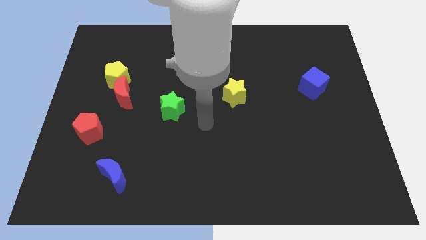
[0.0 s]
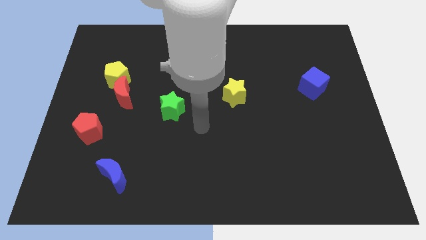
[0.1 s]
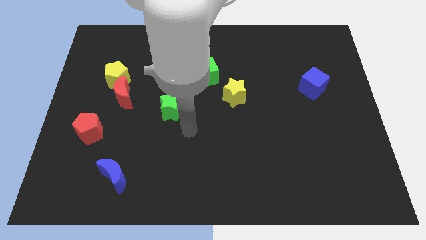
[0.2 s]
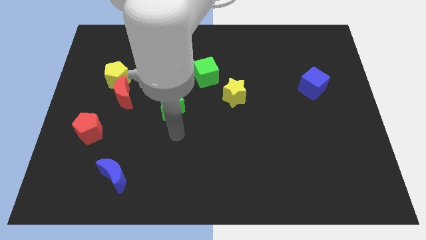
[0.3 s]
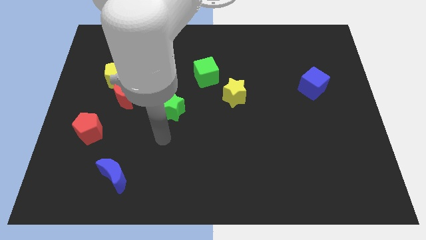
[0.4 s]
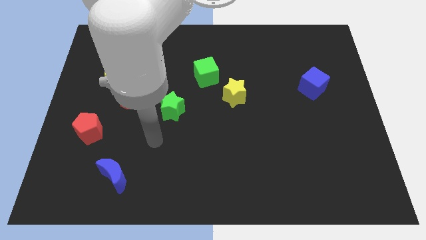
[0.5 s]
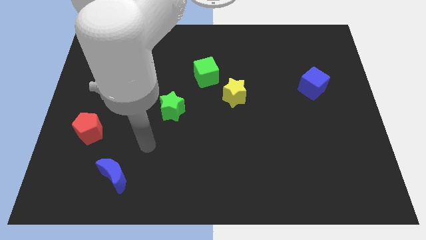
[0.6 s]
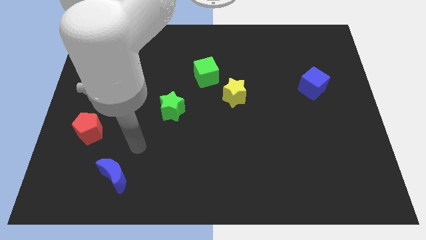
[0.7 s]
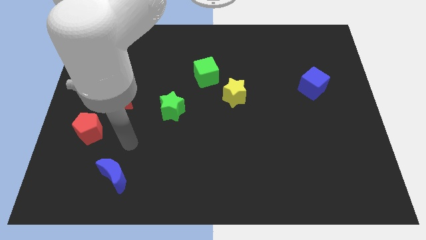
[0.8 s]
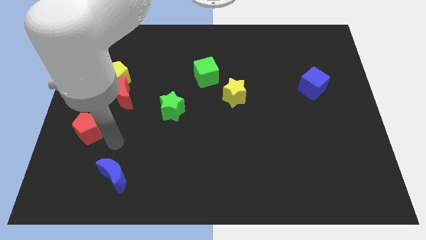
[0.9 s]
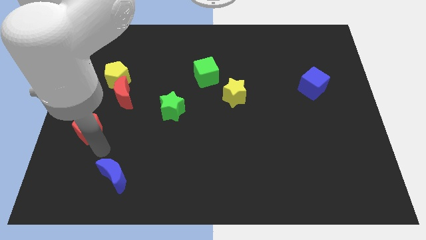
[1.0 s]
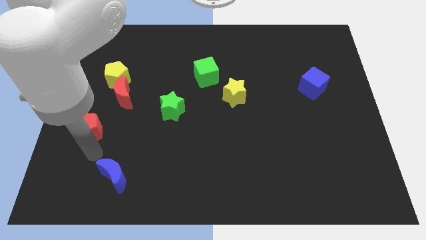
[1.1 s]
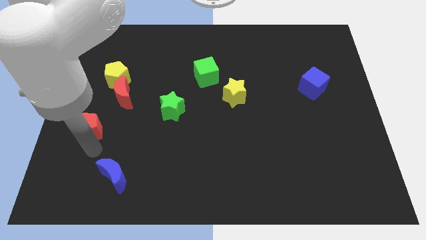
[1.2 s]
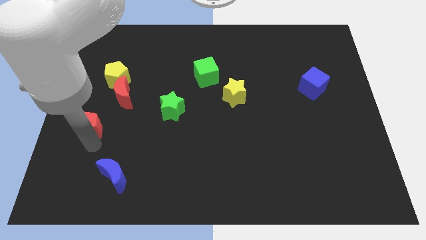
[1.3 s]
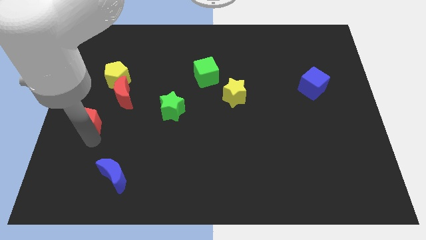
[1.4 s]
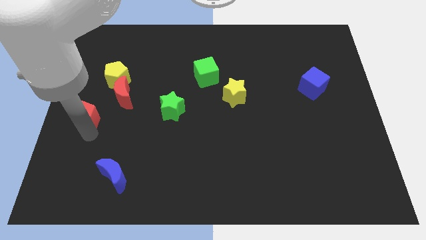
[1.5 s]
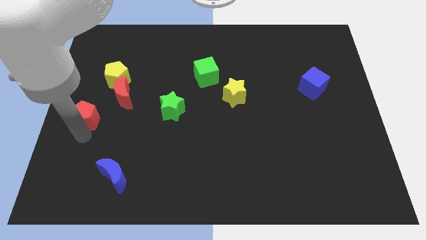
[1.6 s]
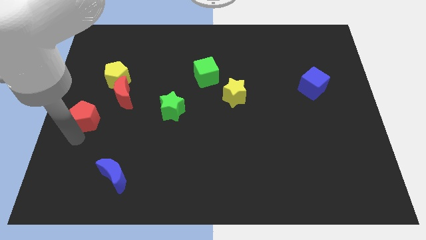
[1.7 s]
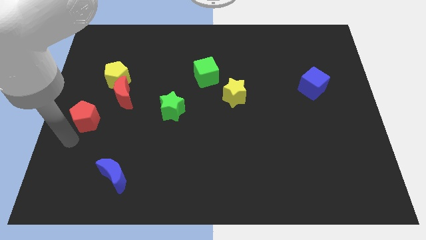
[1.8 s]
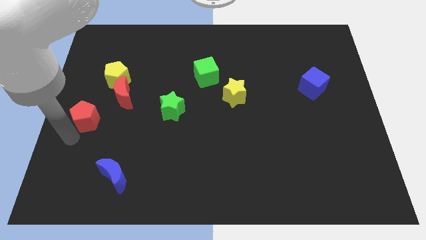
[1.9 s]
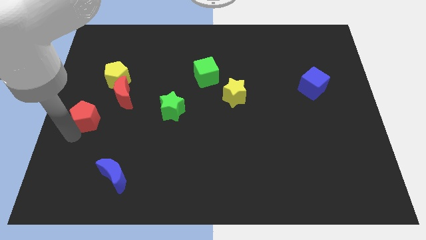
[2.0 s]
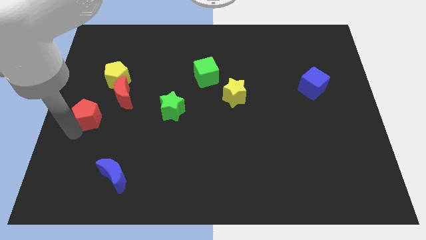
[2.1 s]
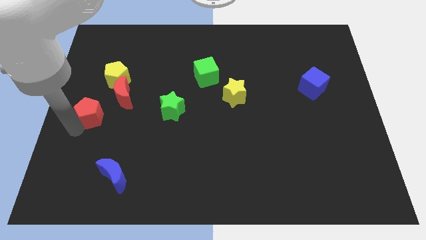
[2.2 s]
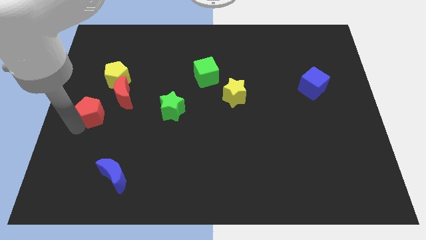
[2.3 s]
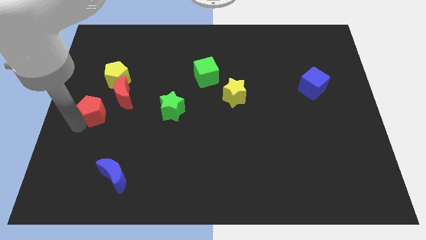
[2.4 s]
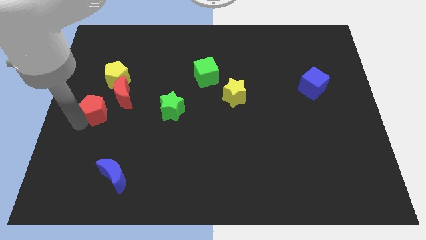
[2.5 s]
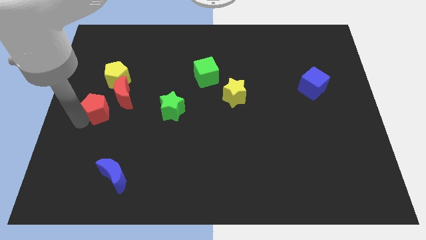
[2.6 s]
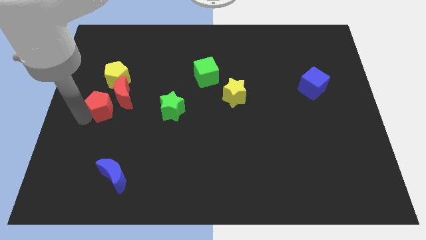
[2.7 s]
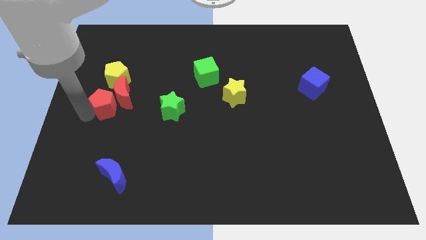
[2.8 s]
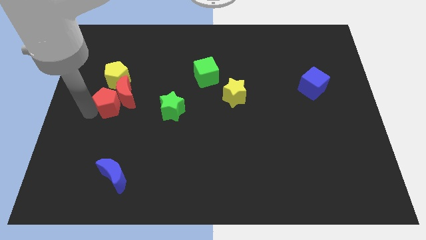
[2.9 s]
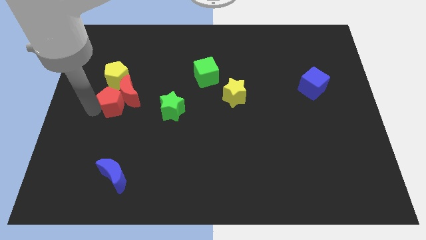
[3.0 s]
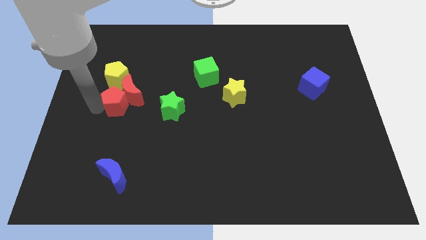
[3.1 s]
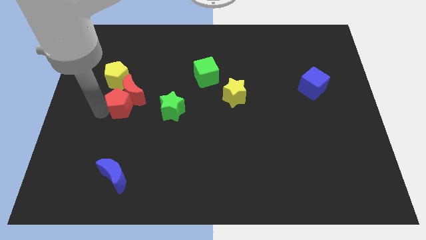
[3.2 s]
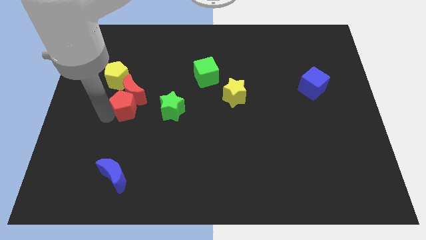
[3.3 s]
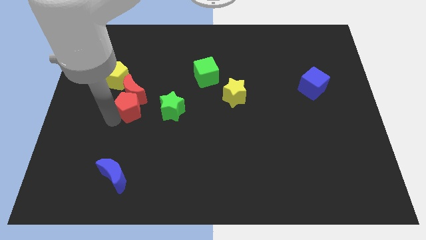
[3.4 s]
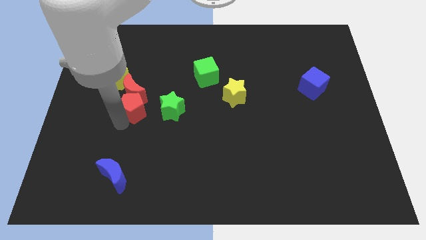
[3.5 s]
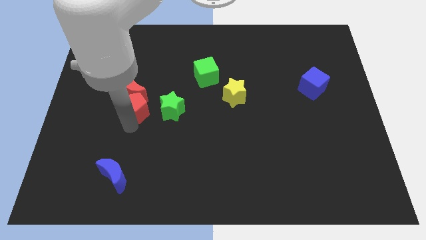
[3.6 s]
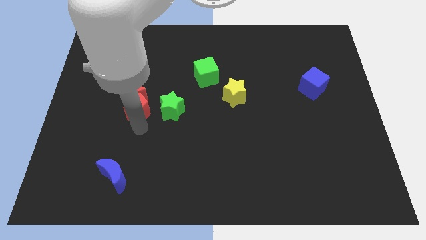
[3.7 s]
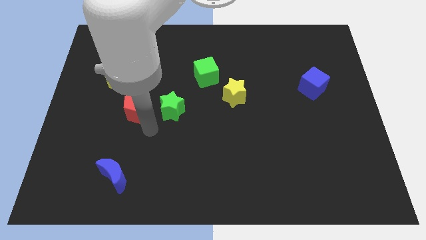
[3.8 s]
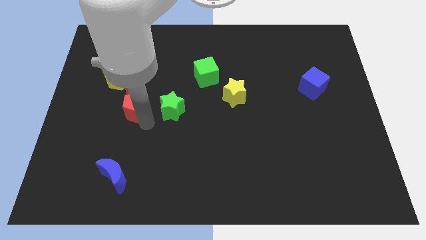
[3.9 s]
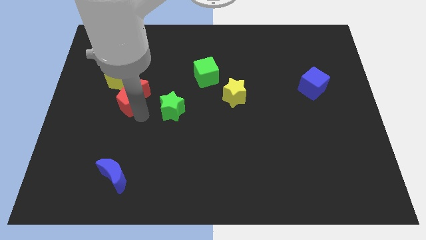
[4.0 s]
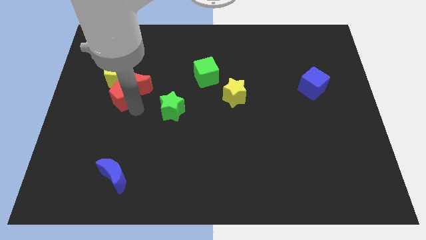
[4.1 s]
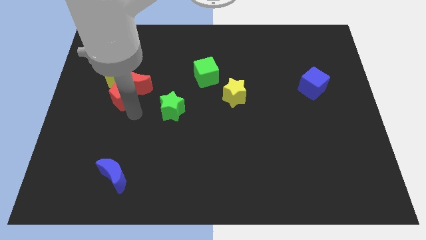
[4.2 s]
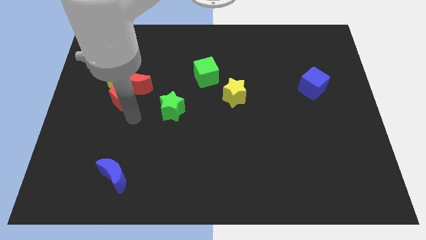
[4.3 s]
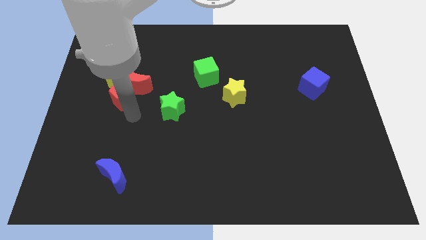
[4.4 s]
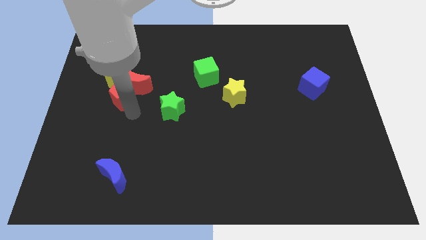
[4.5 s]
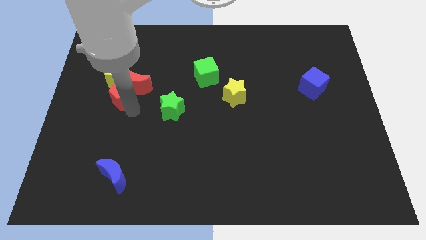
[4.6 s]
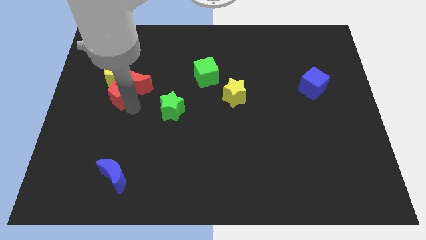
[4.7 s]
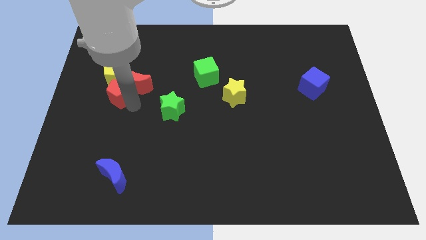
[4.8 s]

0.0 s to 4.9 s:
slide the red pentagon towards the yellow pentagon

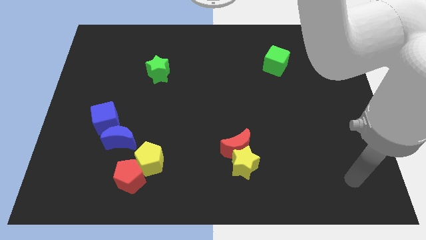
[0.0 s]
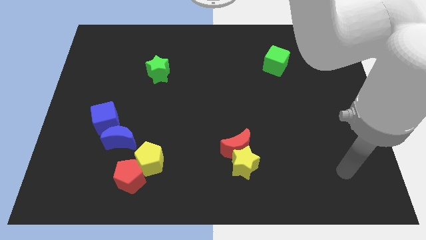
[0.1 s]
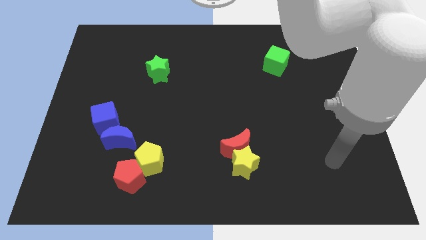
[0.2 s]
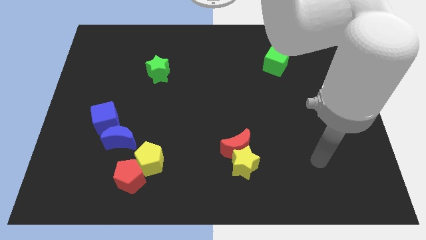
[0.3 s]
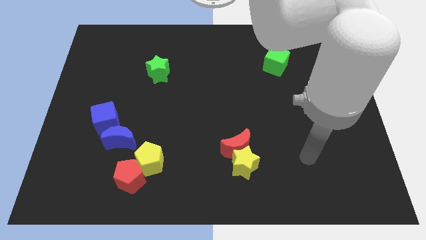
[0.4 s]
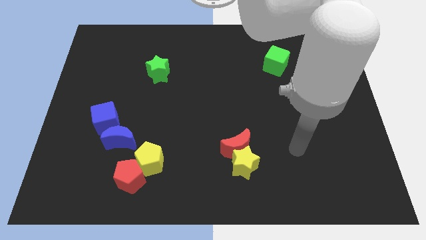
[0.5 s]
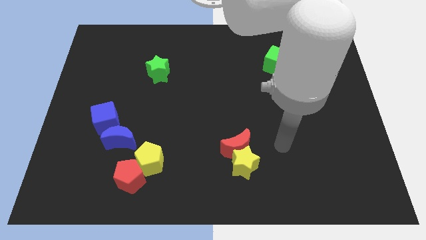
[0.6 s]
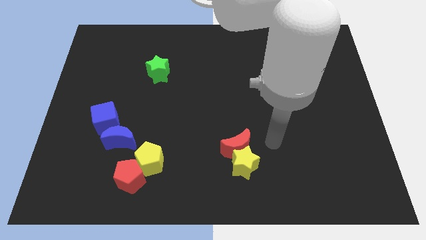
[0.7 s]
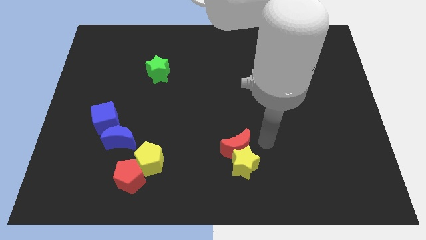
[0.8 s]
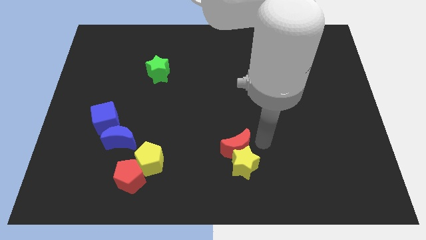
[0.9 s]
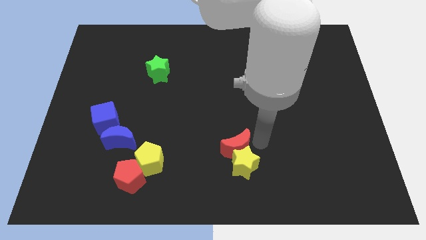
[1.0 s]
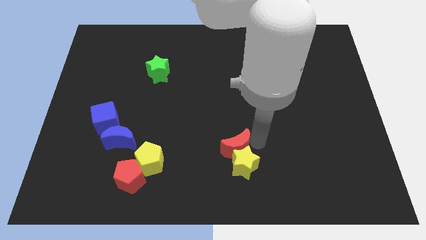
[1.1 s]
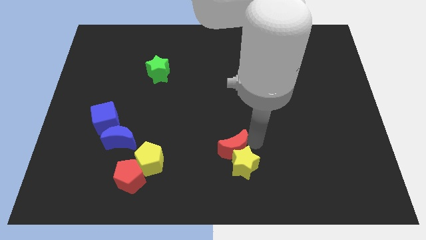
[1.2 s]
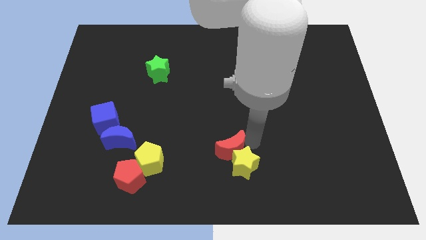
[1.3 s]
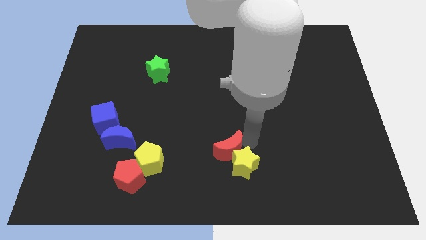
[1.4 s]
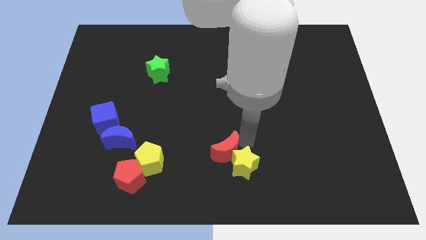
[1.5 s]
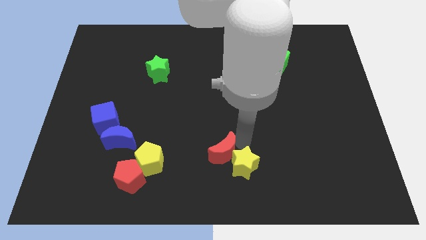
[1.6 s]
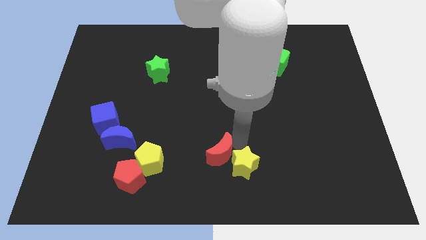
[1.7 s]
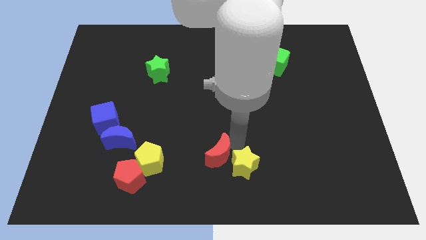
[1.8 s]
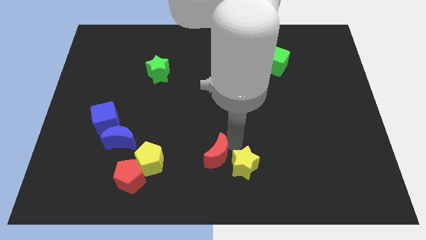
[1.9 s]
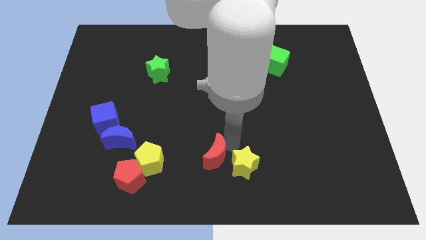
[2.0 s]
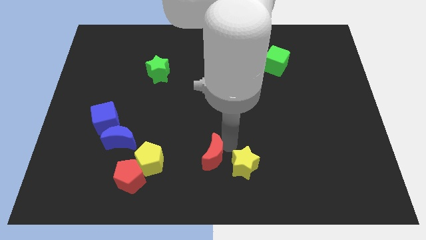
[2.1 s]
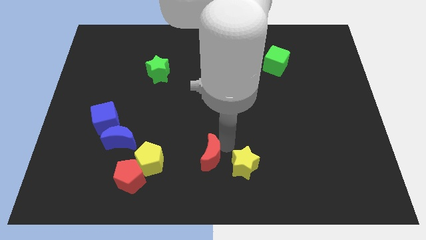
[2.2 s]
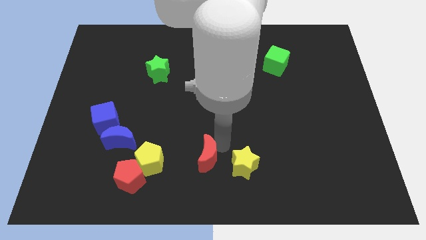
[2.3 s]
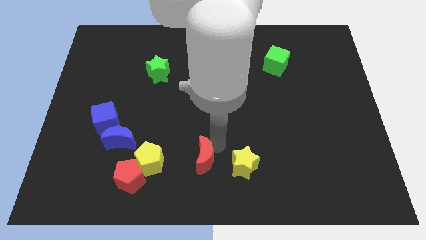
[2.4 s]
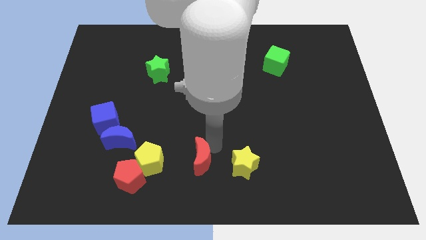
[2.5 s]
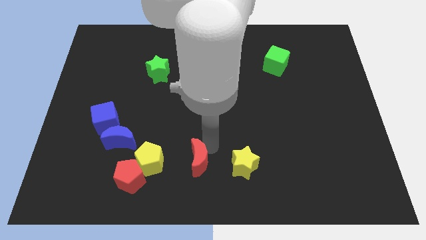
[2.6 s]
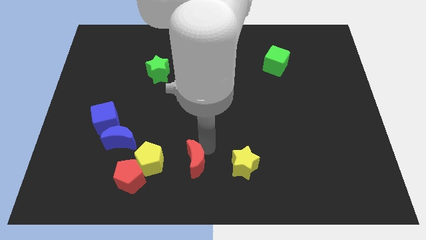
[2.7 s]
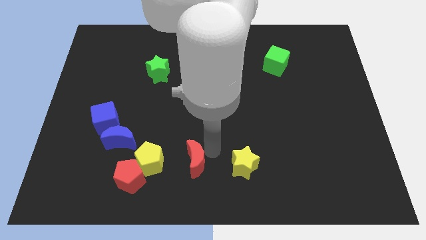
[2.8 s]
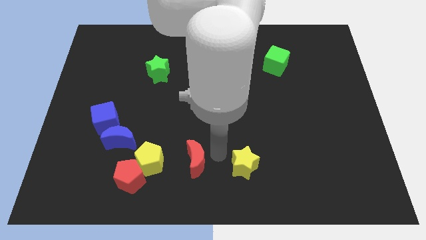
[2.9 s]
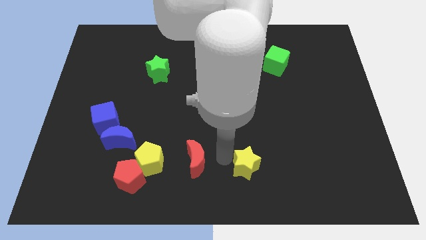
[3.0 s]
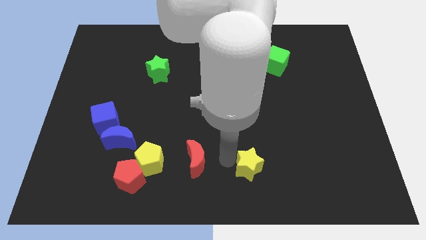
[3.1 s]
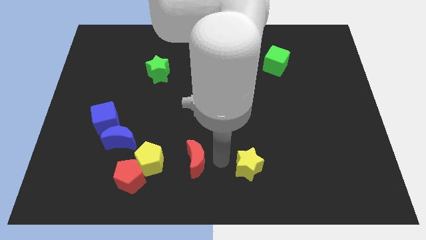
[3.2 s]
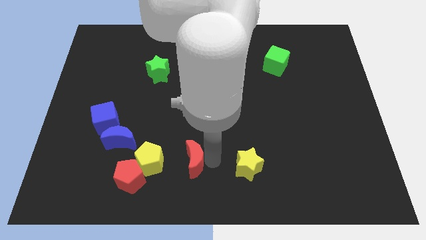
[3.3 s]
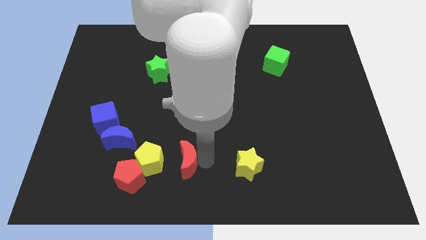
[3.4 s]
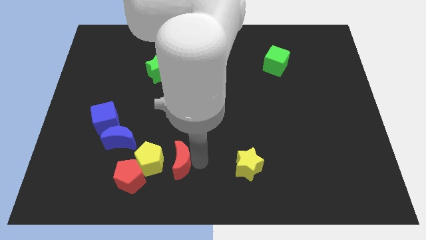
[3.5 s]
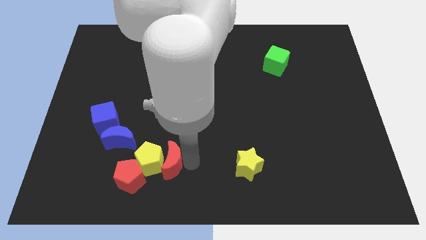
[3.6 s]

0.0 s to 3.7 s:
push the red moon close to the yellow pentagon
